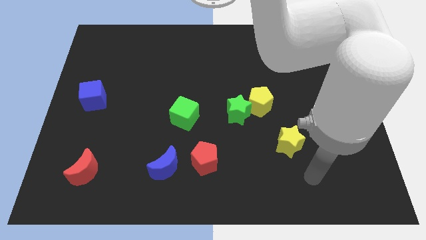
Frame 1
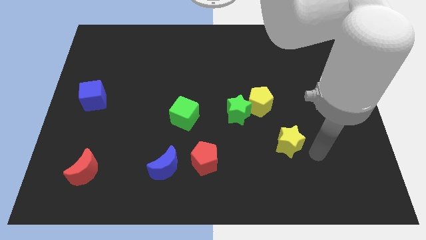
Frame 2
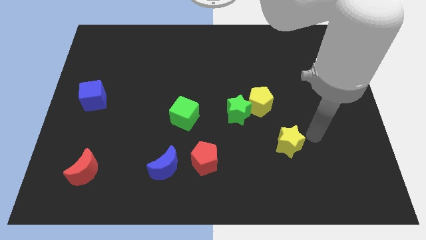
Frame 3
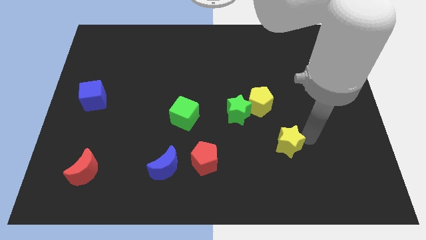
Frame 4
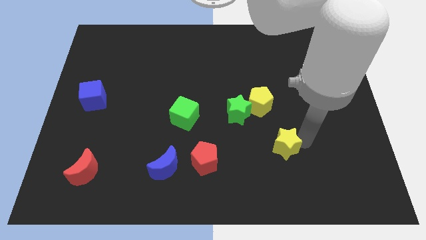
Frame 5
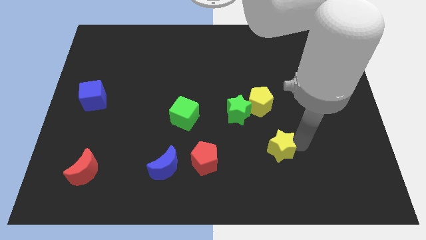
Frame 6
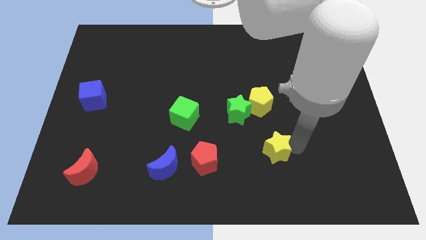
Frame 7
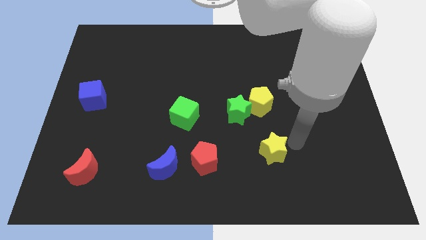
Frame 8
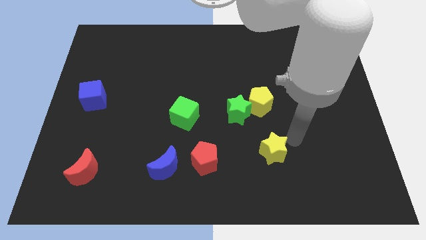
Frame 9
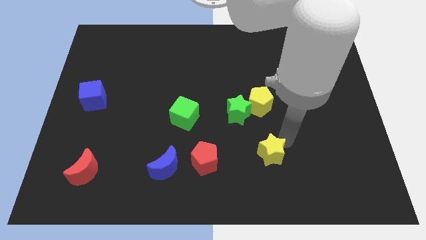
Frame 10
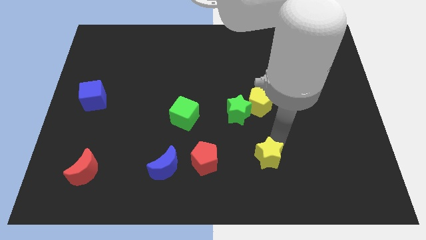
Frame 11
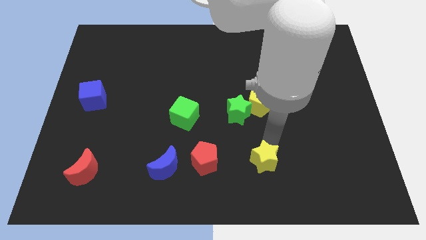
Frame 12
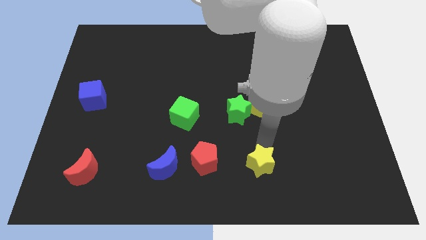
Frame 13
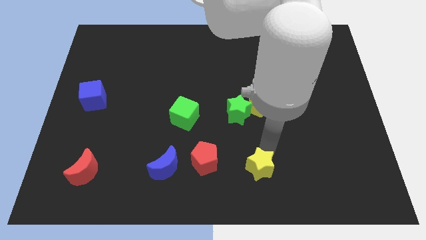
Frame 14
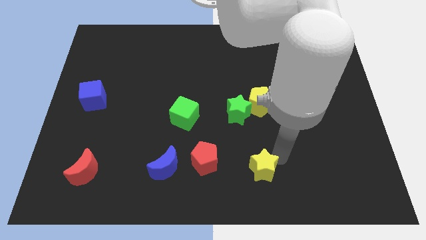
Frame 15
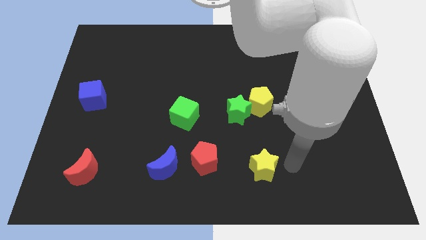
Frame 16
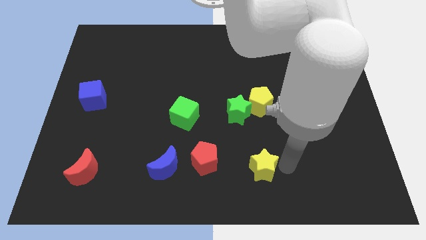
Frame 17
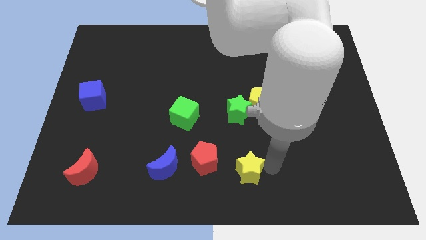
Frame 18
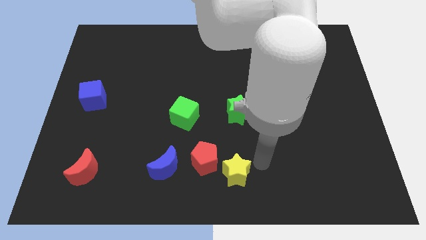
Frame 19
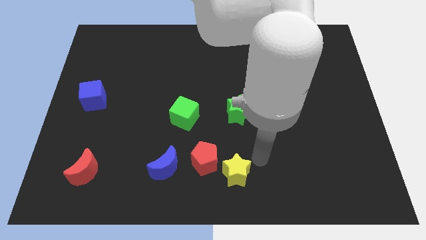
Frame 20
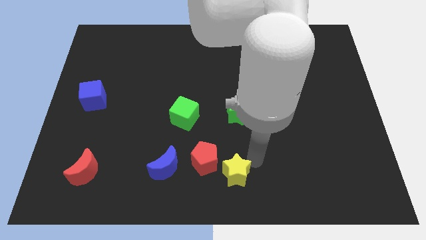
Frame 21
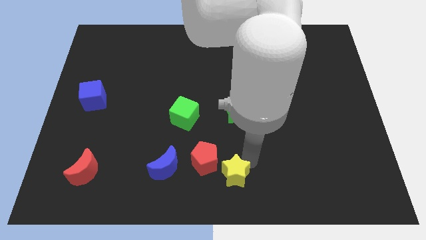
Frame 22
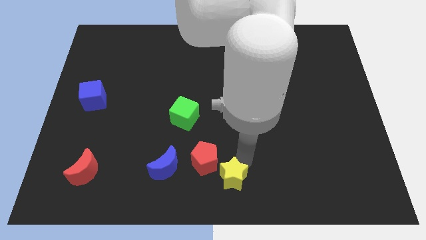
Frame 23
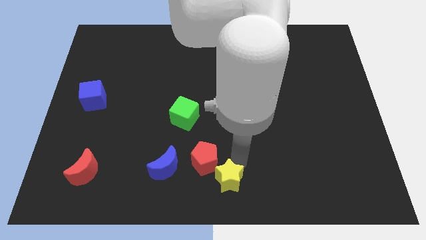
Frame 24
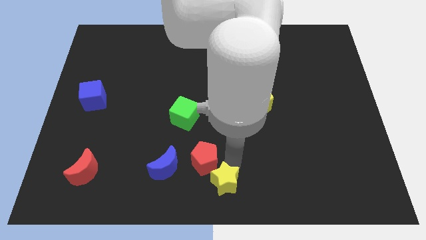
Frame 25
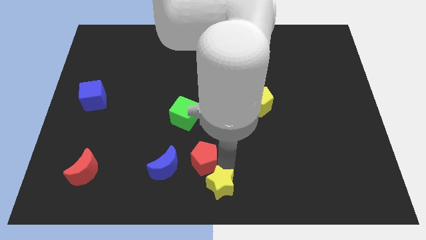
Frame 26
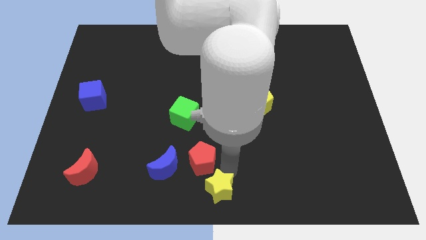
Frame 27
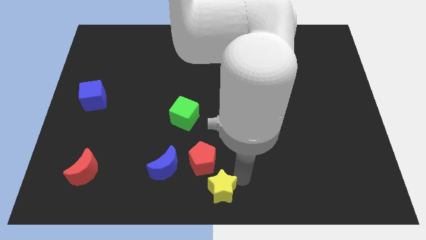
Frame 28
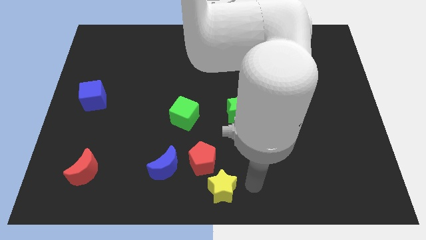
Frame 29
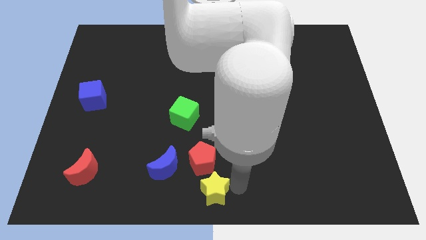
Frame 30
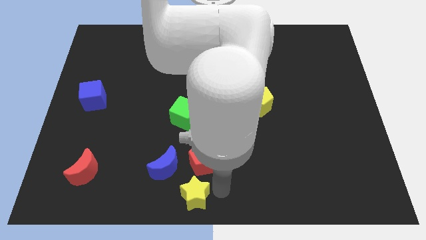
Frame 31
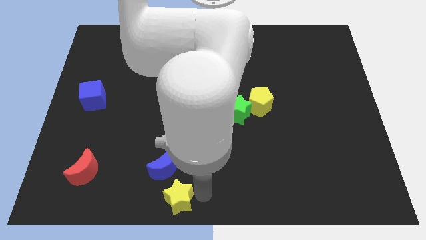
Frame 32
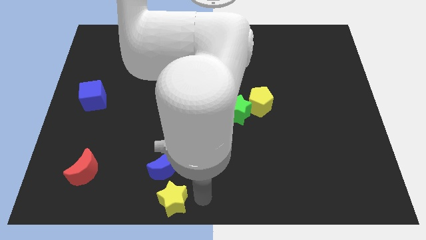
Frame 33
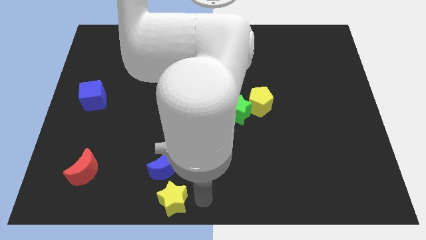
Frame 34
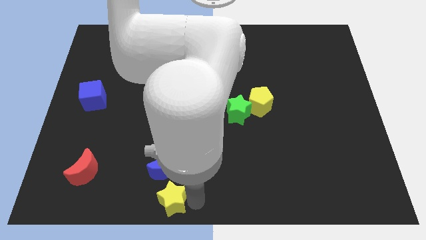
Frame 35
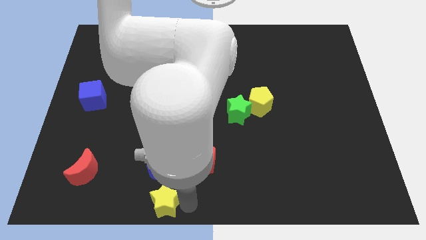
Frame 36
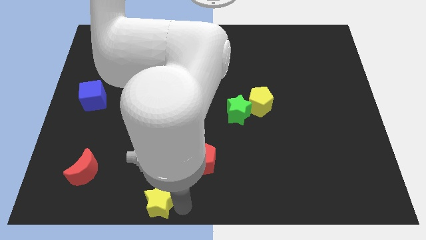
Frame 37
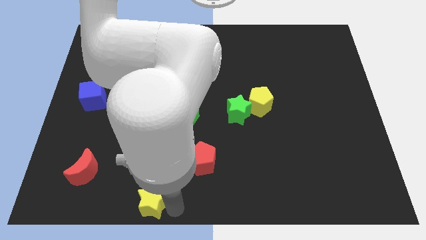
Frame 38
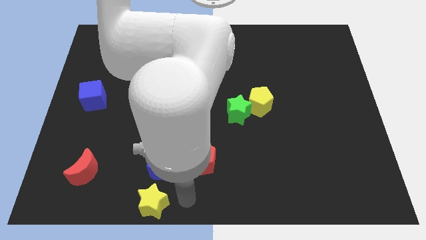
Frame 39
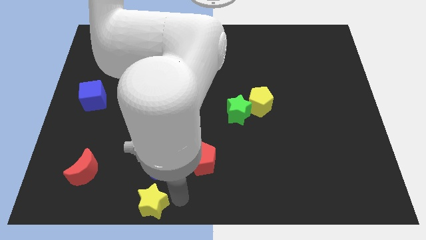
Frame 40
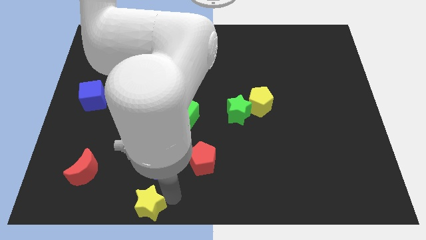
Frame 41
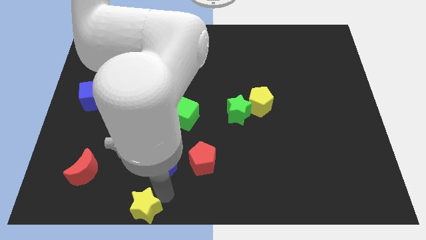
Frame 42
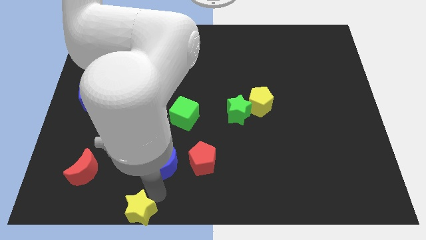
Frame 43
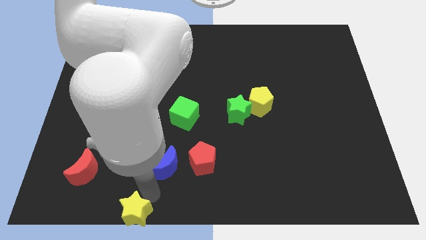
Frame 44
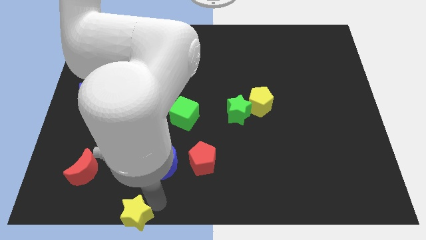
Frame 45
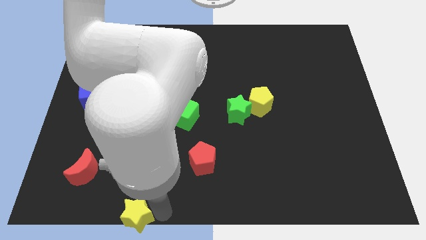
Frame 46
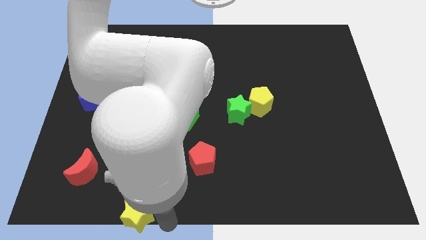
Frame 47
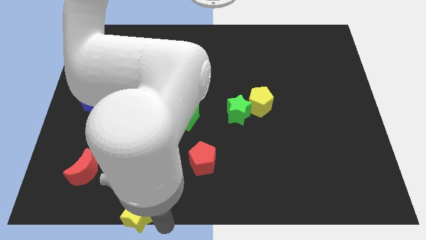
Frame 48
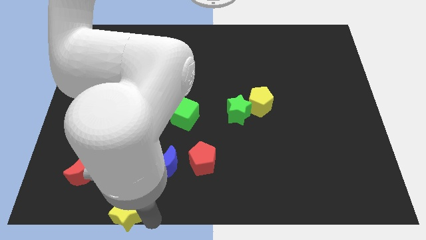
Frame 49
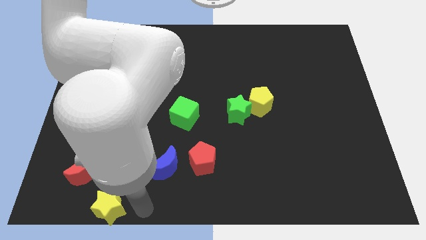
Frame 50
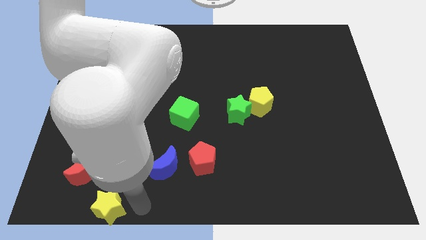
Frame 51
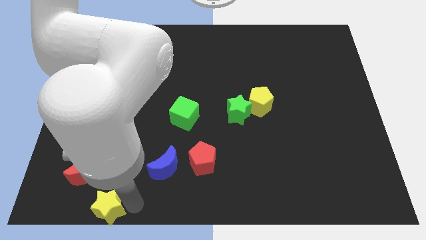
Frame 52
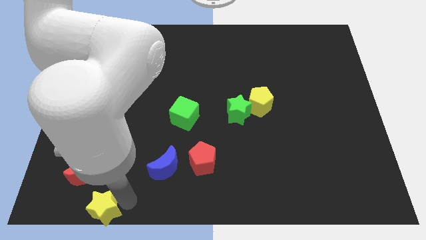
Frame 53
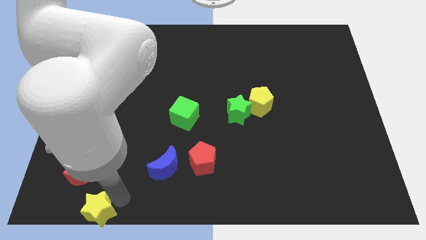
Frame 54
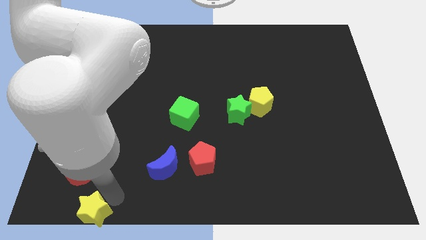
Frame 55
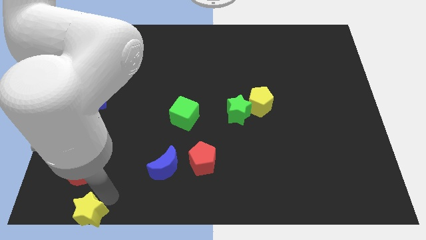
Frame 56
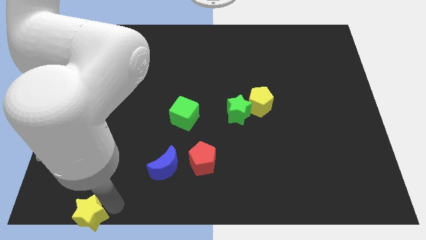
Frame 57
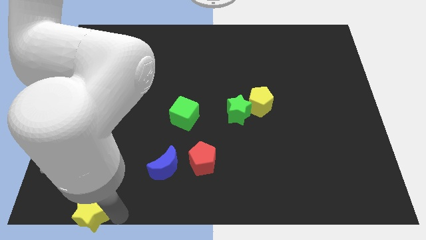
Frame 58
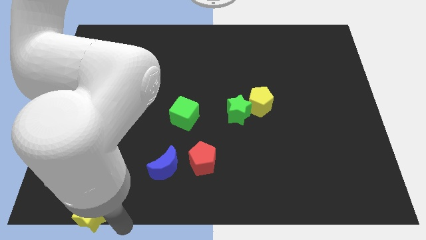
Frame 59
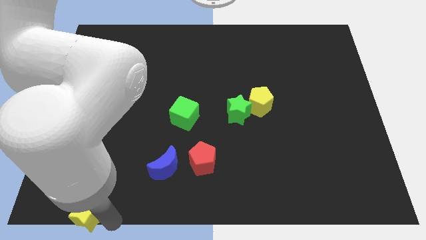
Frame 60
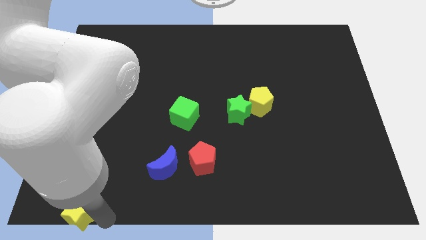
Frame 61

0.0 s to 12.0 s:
put the yellow star to the bottom left
